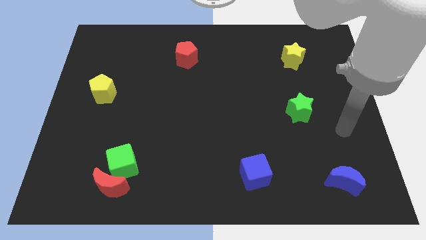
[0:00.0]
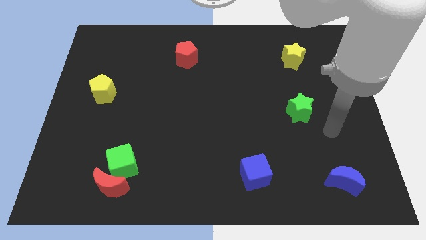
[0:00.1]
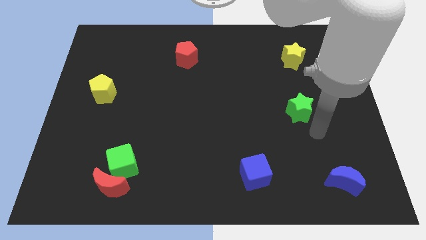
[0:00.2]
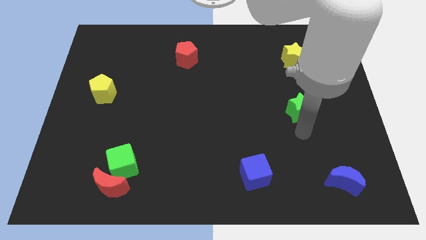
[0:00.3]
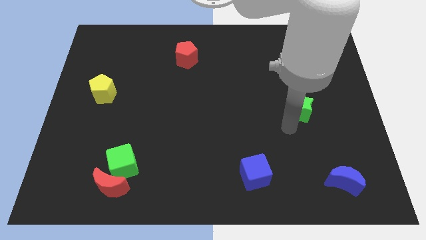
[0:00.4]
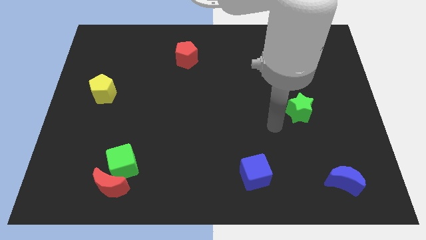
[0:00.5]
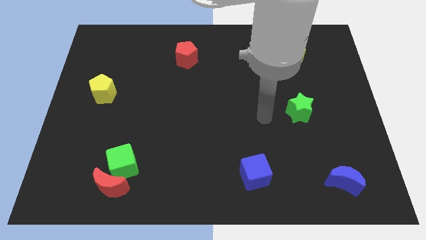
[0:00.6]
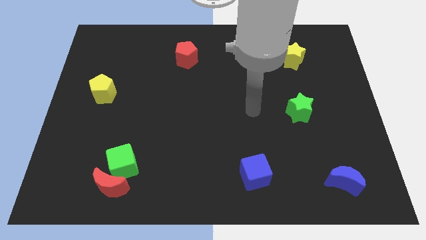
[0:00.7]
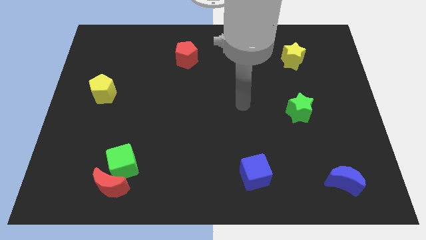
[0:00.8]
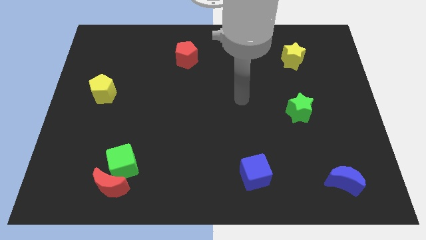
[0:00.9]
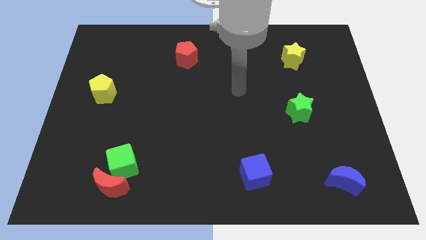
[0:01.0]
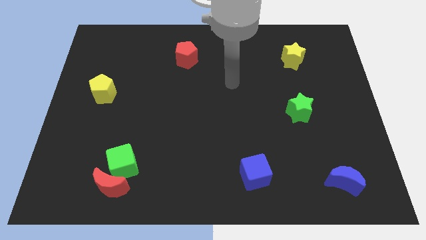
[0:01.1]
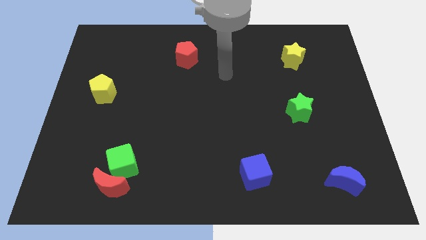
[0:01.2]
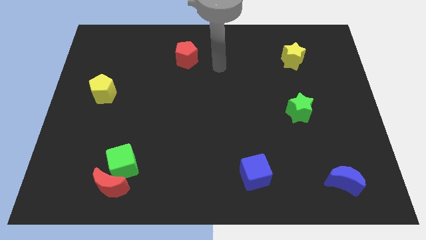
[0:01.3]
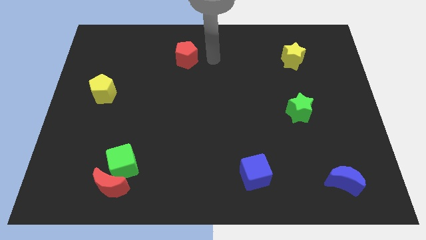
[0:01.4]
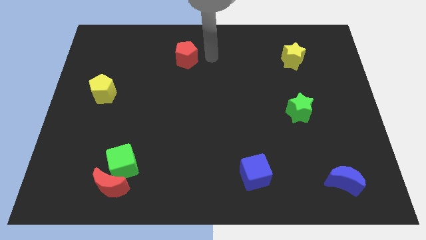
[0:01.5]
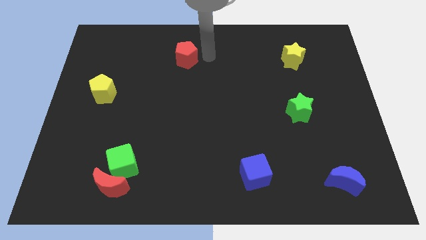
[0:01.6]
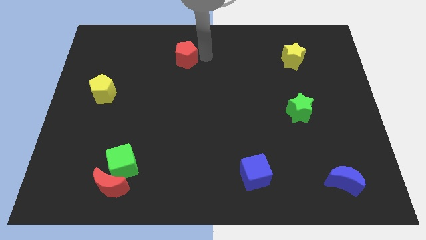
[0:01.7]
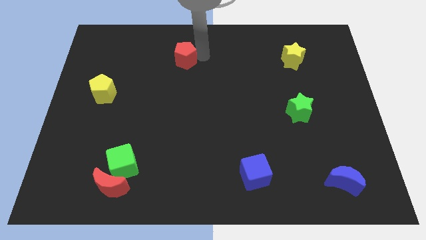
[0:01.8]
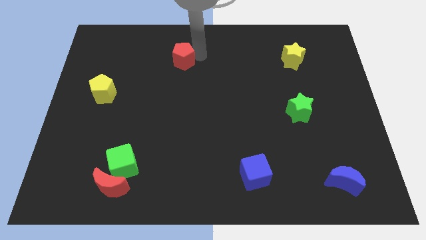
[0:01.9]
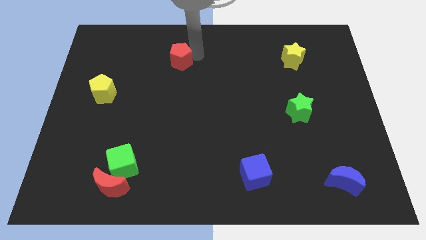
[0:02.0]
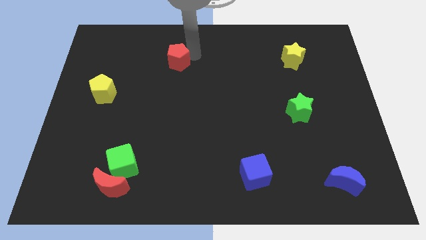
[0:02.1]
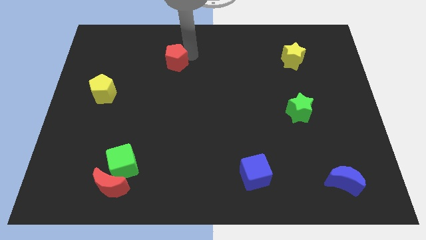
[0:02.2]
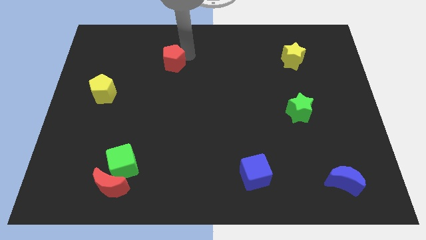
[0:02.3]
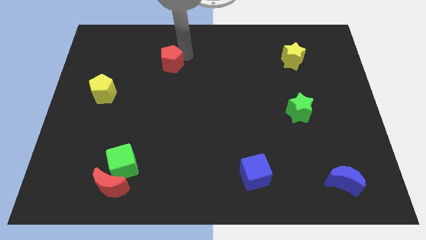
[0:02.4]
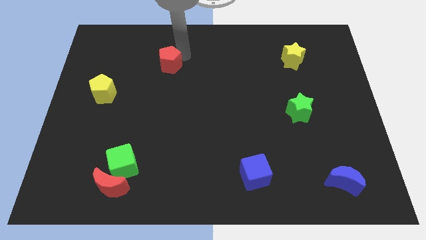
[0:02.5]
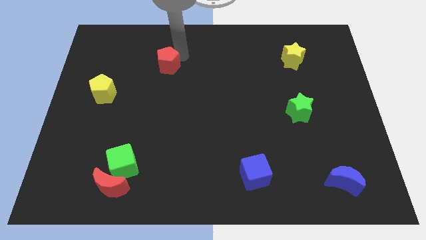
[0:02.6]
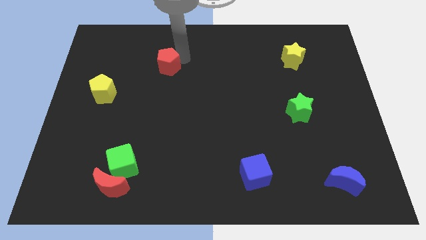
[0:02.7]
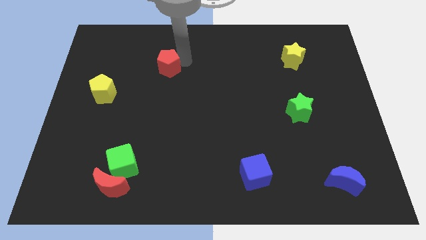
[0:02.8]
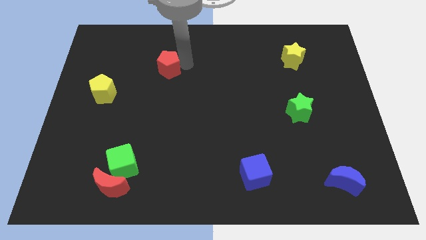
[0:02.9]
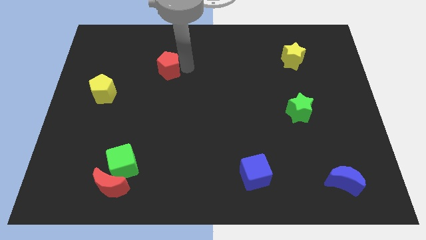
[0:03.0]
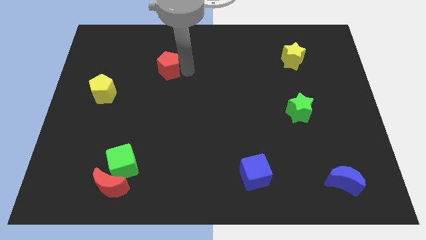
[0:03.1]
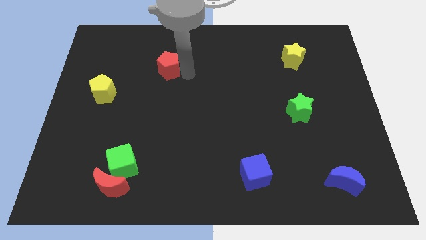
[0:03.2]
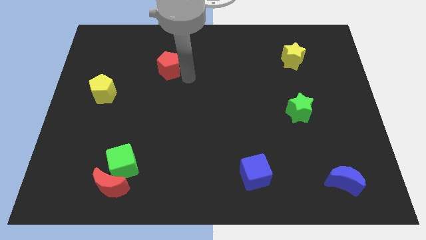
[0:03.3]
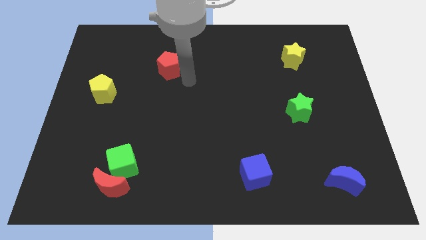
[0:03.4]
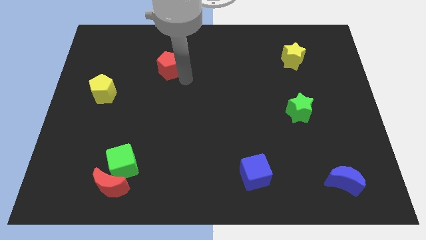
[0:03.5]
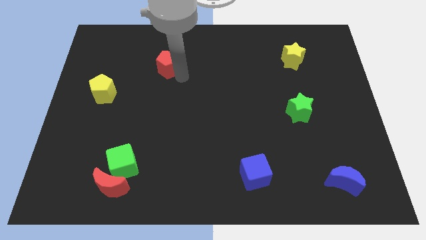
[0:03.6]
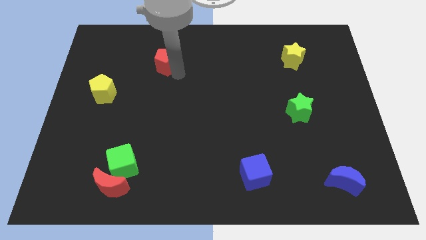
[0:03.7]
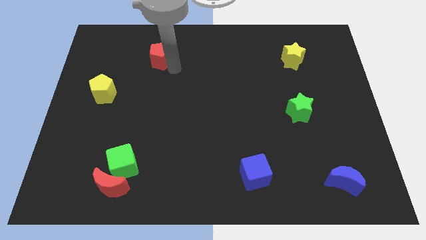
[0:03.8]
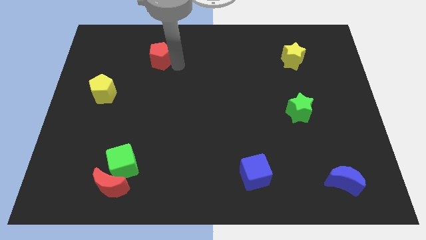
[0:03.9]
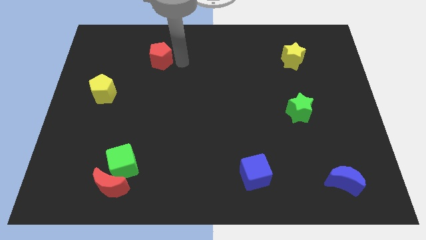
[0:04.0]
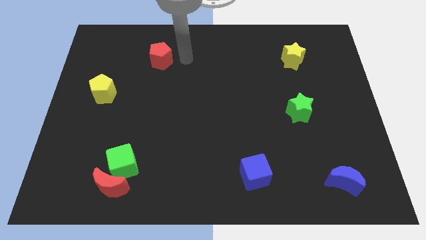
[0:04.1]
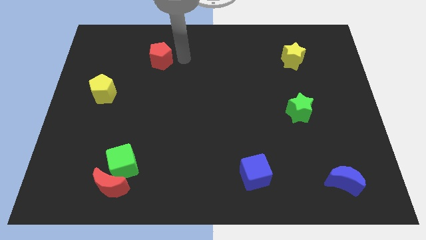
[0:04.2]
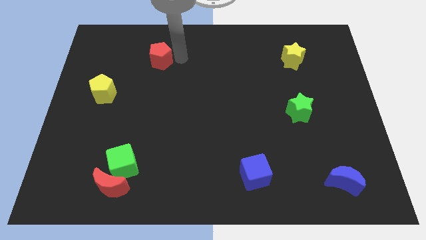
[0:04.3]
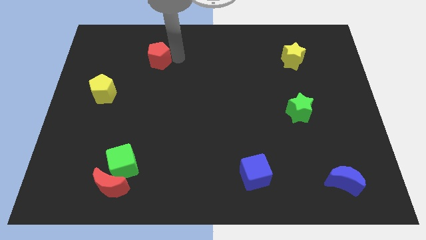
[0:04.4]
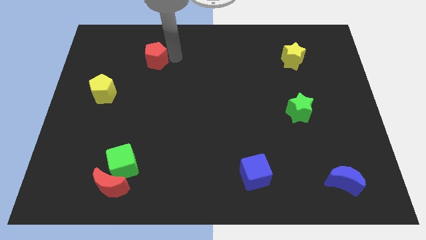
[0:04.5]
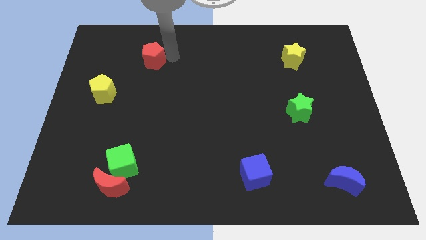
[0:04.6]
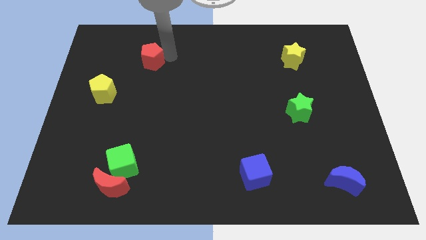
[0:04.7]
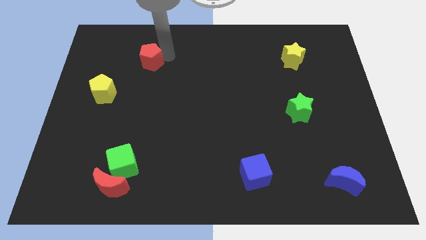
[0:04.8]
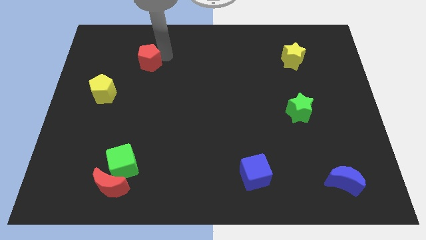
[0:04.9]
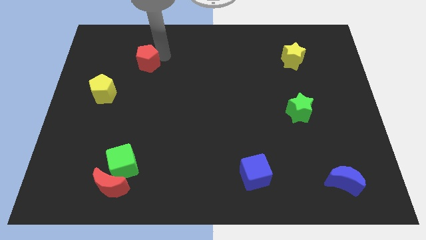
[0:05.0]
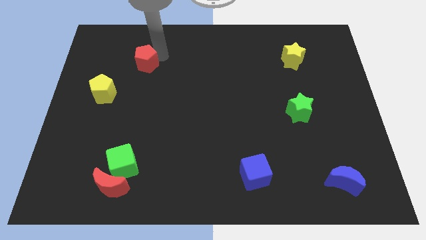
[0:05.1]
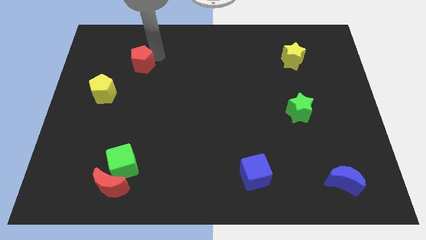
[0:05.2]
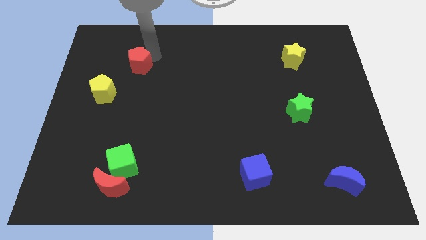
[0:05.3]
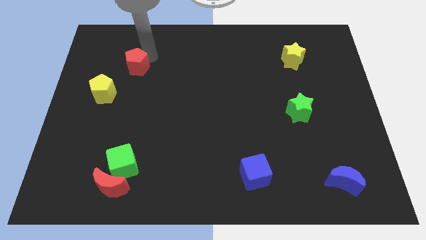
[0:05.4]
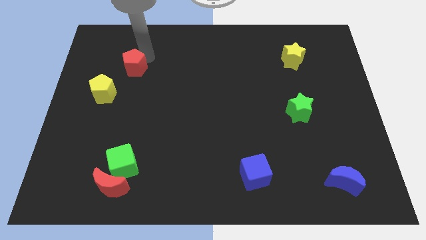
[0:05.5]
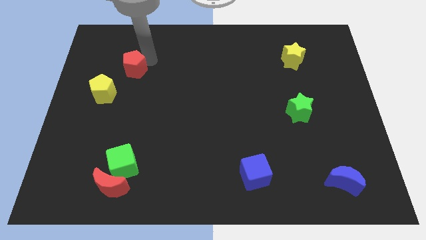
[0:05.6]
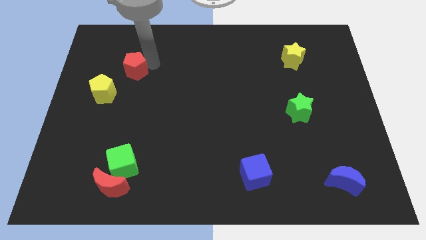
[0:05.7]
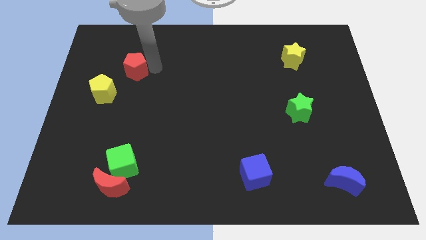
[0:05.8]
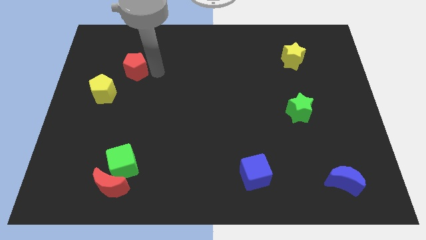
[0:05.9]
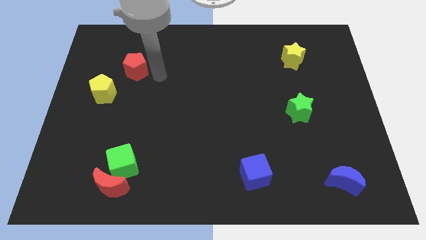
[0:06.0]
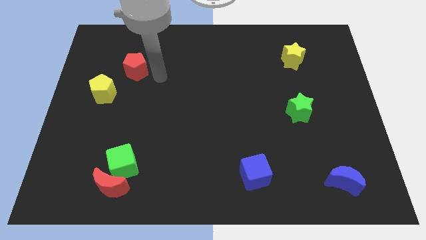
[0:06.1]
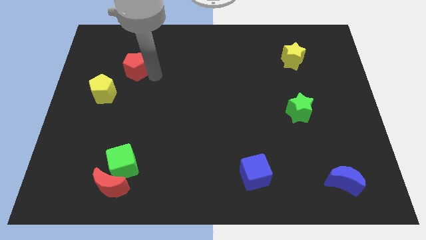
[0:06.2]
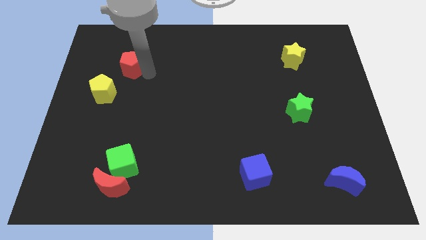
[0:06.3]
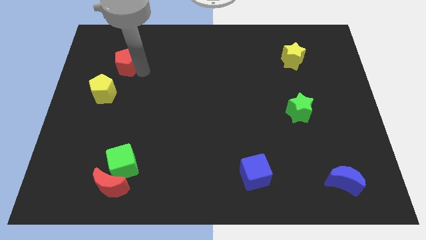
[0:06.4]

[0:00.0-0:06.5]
push the red pentagon to the top of the yellow pentagon

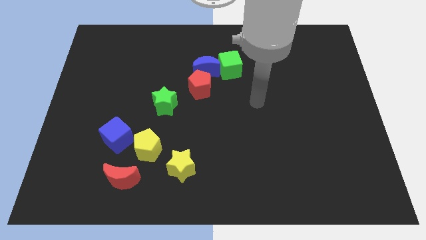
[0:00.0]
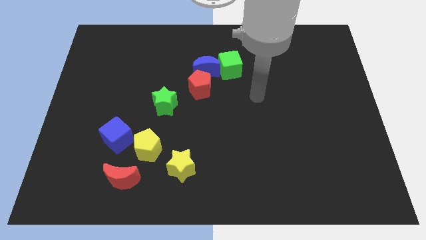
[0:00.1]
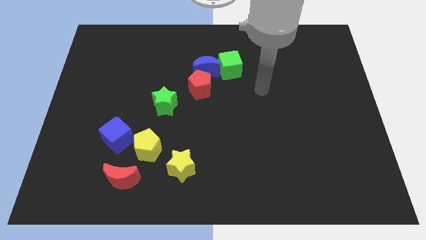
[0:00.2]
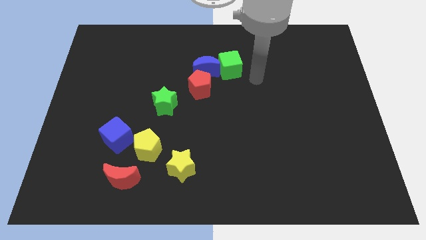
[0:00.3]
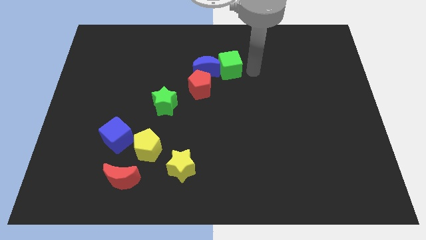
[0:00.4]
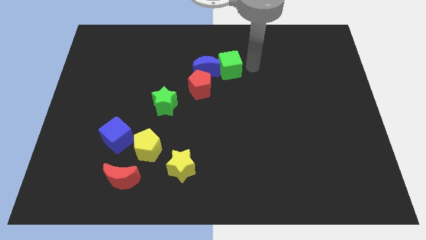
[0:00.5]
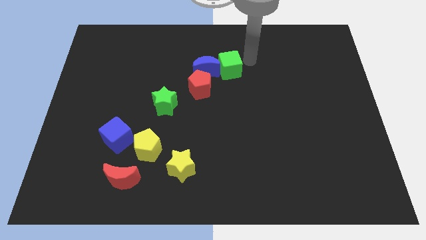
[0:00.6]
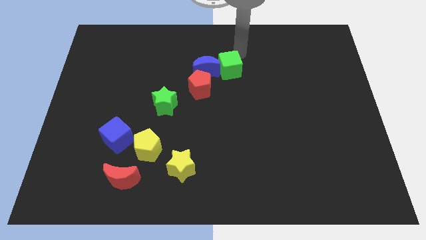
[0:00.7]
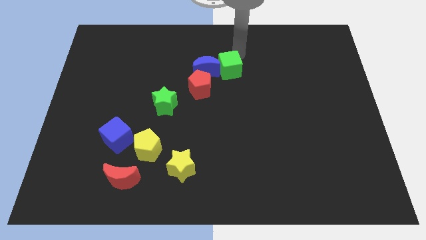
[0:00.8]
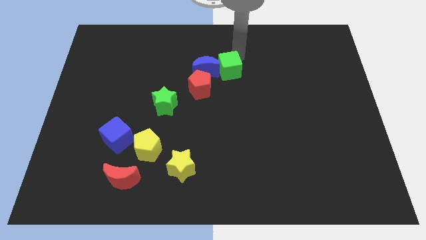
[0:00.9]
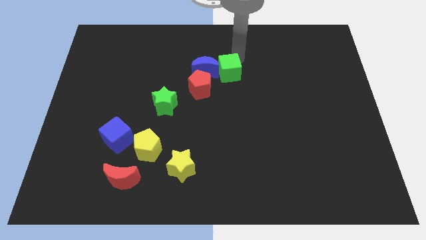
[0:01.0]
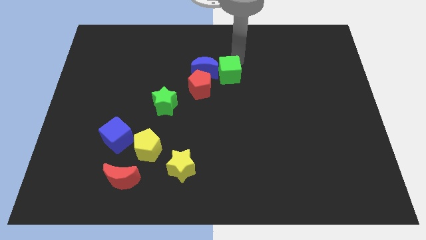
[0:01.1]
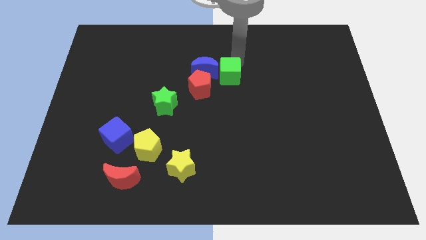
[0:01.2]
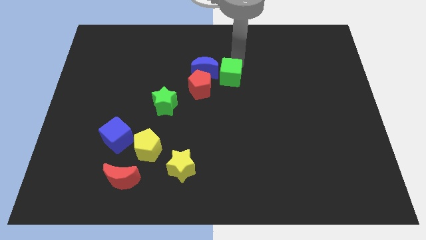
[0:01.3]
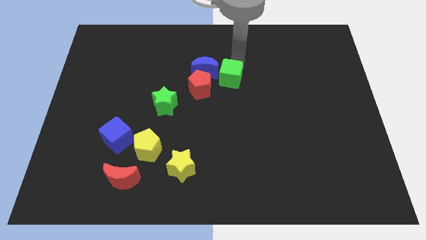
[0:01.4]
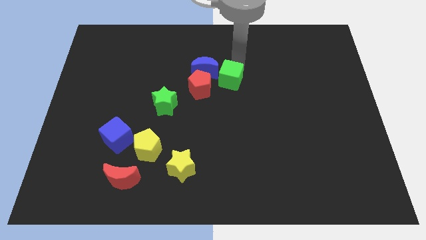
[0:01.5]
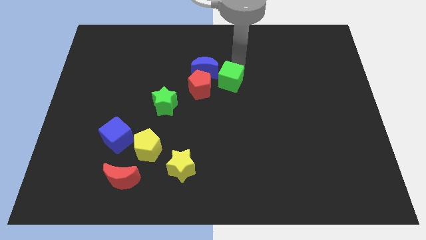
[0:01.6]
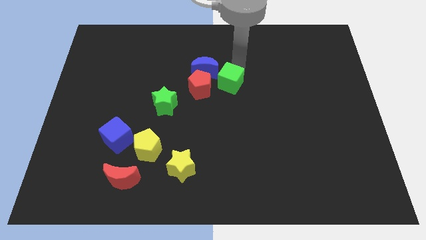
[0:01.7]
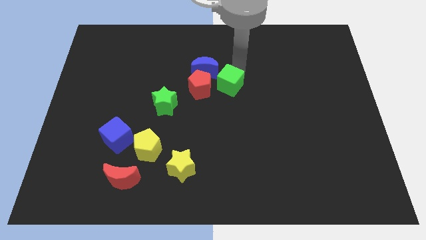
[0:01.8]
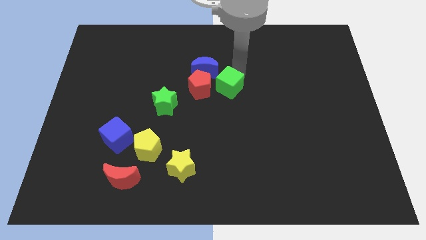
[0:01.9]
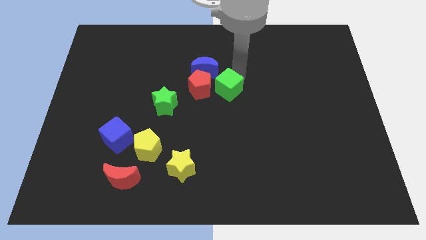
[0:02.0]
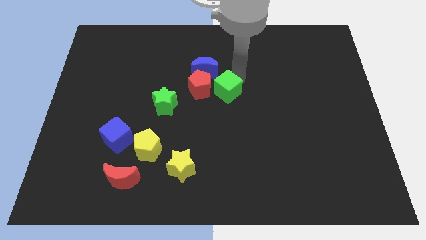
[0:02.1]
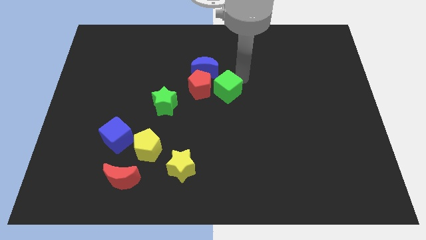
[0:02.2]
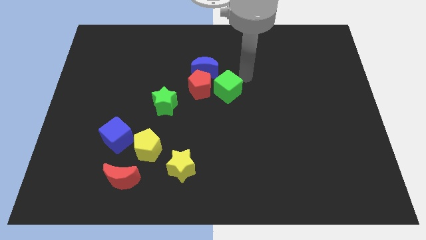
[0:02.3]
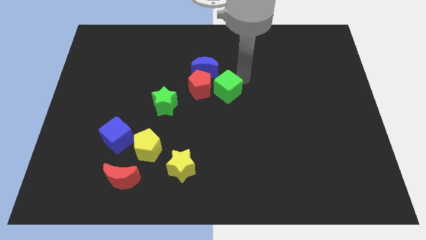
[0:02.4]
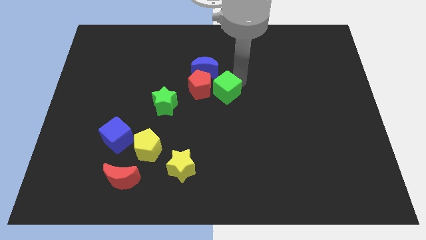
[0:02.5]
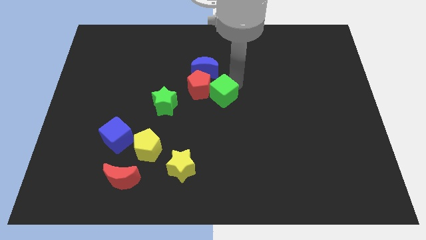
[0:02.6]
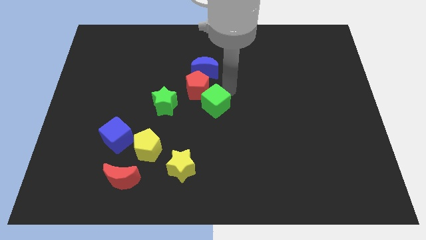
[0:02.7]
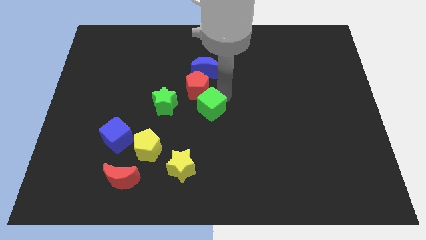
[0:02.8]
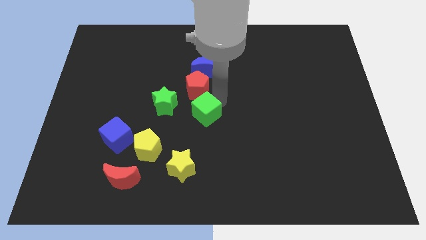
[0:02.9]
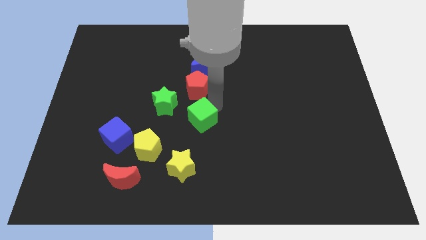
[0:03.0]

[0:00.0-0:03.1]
move the green cube diagonally down and to the right of the green star
